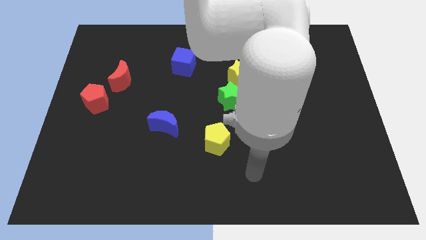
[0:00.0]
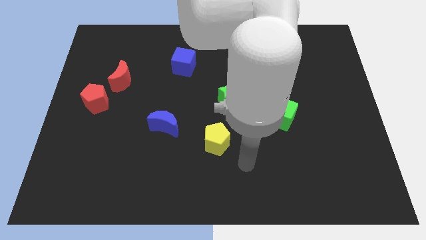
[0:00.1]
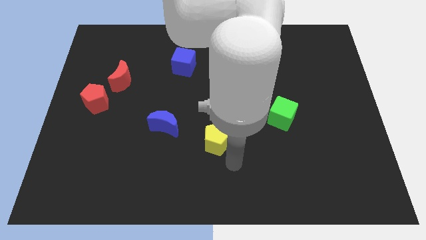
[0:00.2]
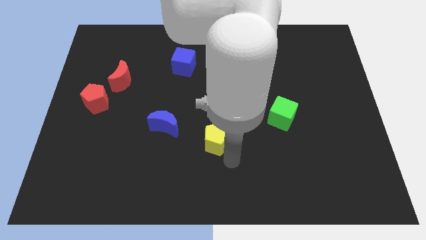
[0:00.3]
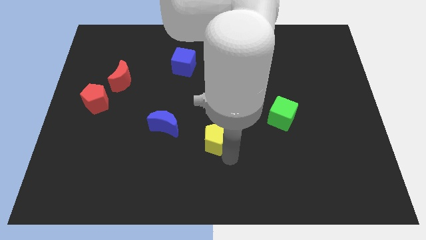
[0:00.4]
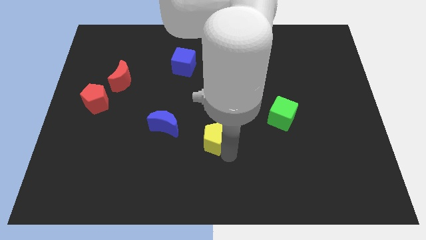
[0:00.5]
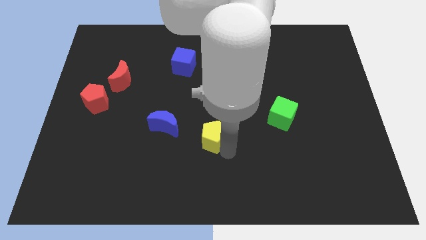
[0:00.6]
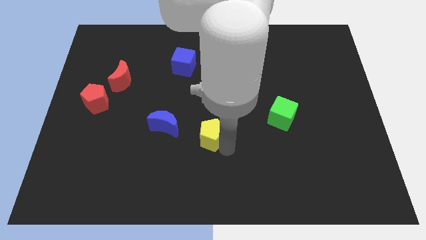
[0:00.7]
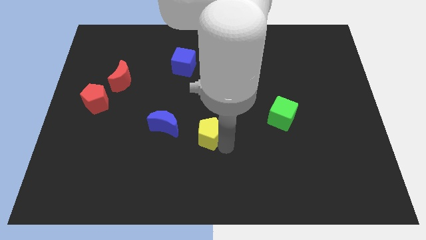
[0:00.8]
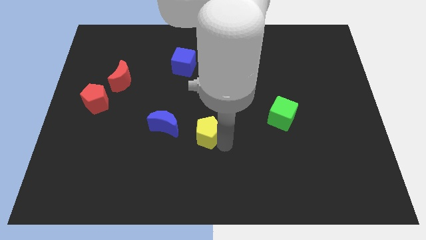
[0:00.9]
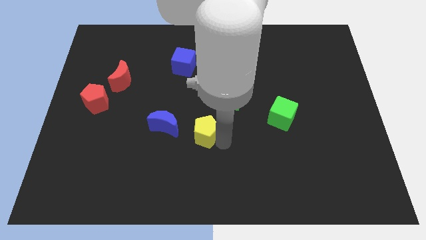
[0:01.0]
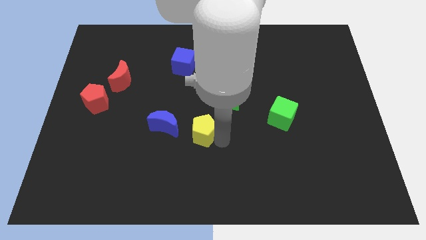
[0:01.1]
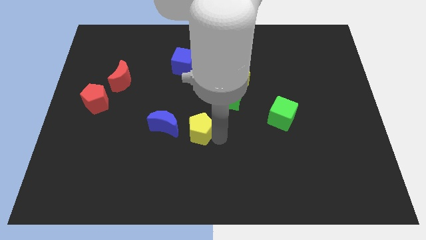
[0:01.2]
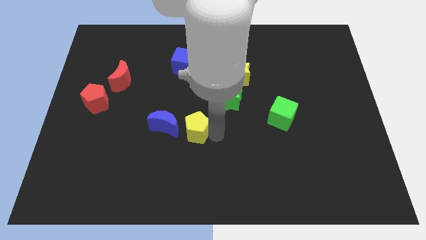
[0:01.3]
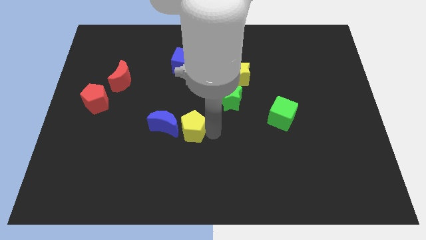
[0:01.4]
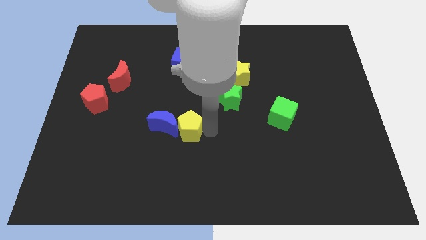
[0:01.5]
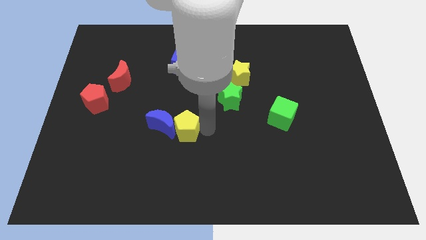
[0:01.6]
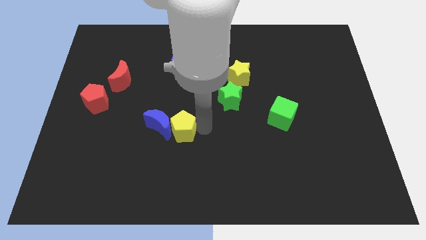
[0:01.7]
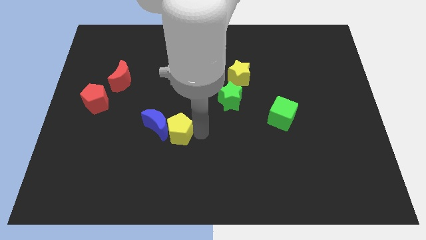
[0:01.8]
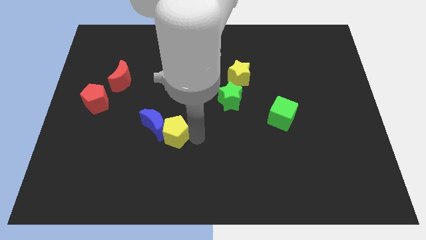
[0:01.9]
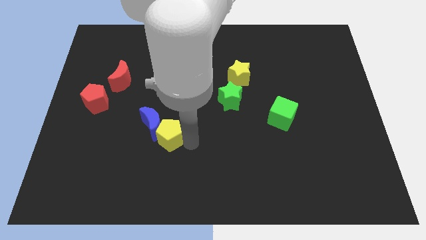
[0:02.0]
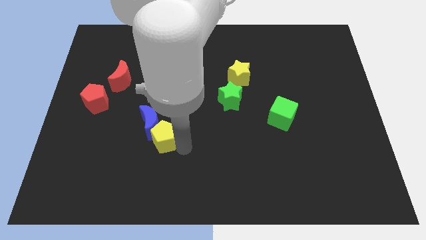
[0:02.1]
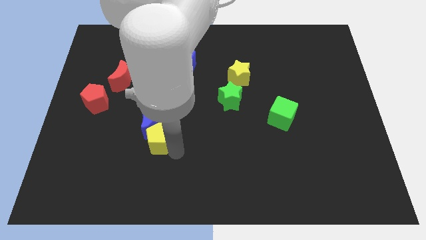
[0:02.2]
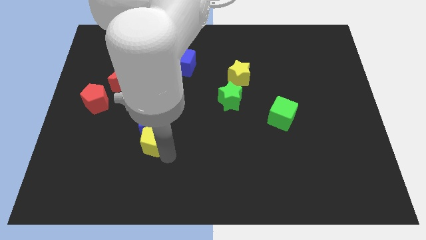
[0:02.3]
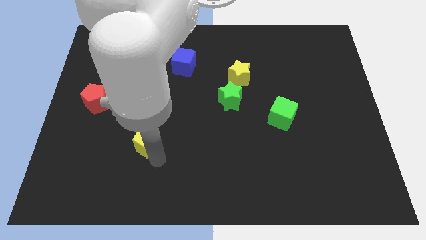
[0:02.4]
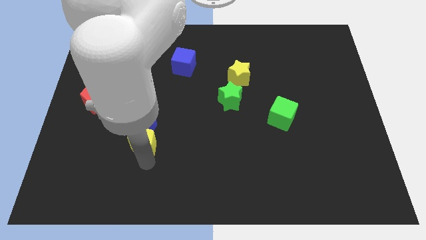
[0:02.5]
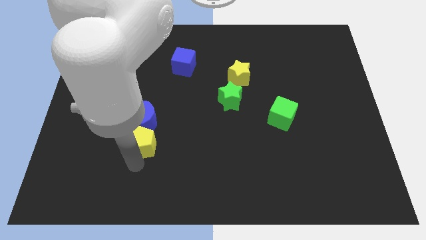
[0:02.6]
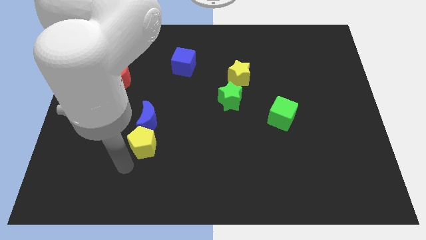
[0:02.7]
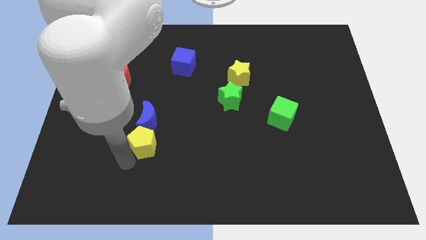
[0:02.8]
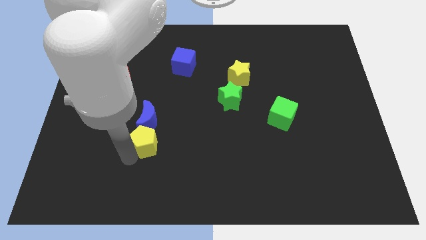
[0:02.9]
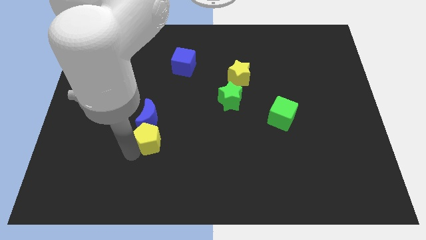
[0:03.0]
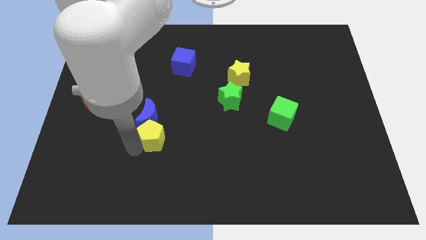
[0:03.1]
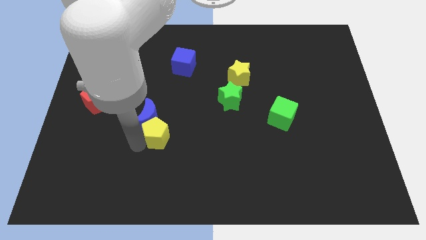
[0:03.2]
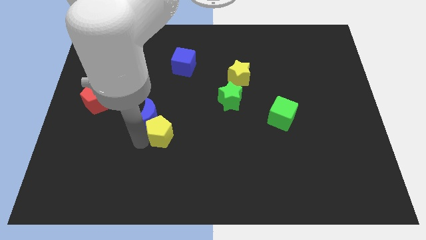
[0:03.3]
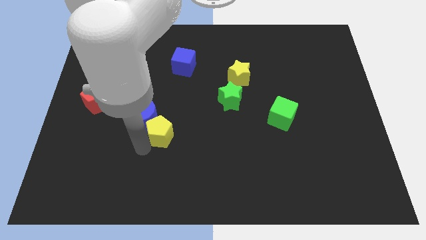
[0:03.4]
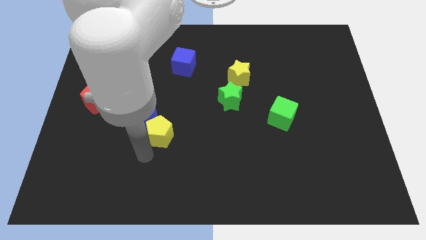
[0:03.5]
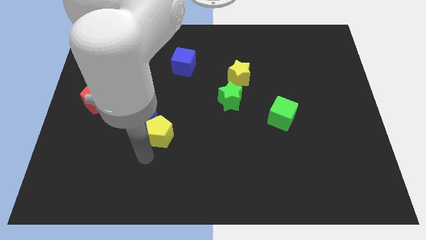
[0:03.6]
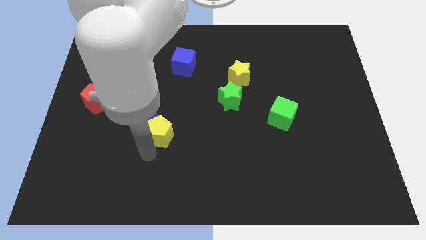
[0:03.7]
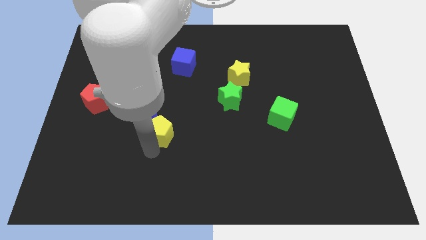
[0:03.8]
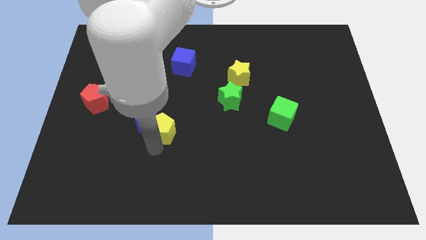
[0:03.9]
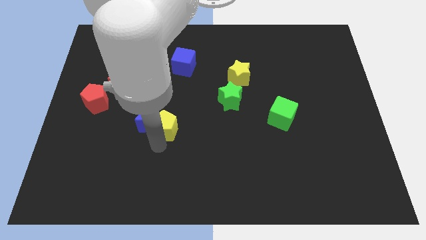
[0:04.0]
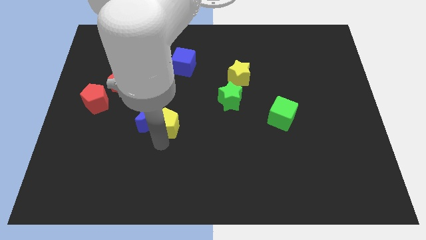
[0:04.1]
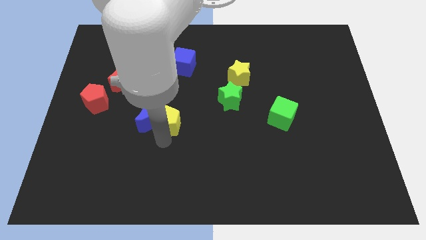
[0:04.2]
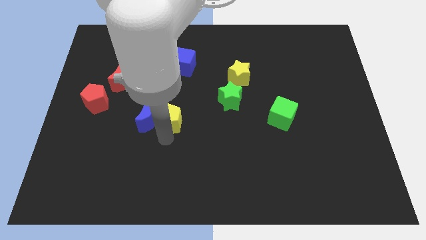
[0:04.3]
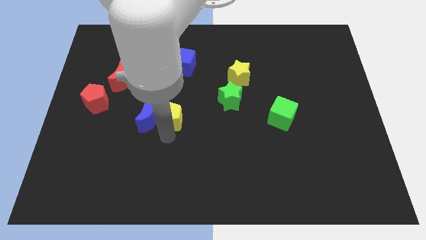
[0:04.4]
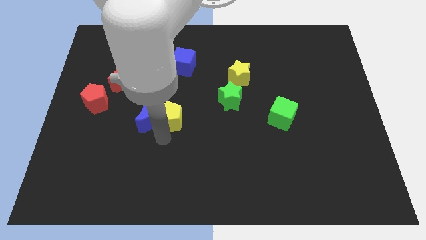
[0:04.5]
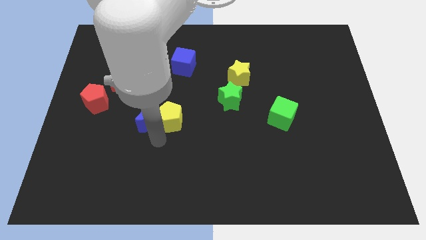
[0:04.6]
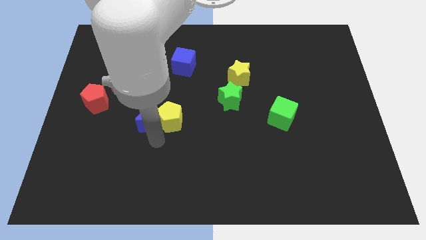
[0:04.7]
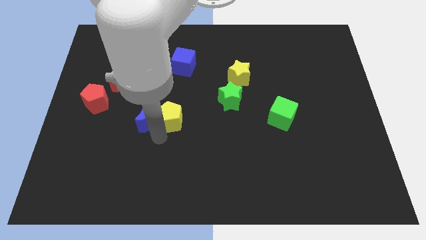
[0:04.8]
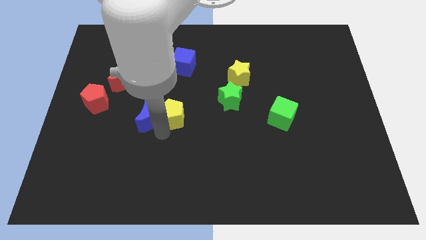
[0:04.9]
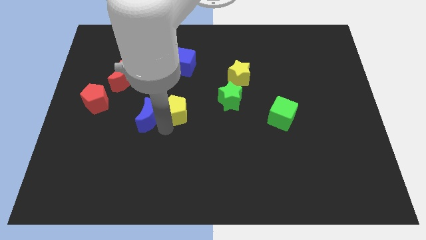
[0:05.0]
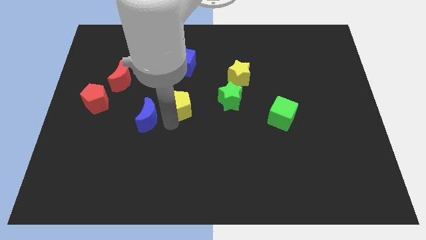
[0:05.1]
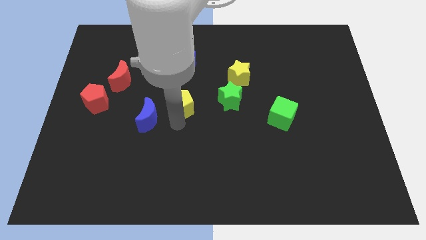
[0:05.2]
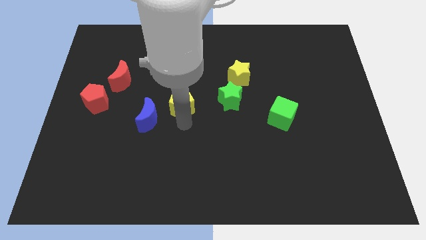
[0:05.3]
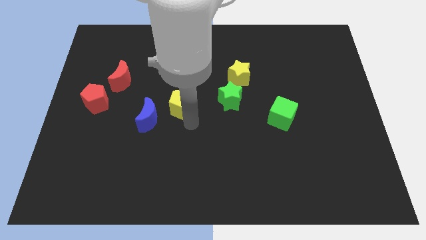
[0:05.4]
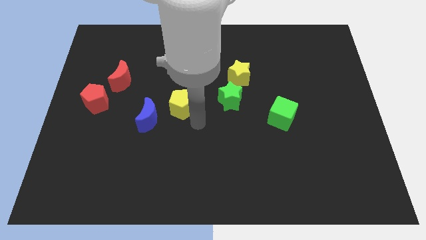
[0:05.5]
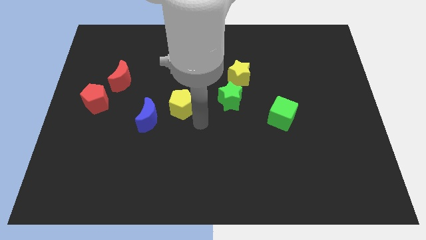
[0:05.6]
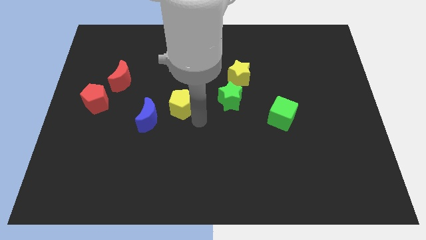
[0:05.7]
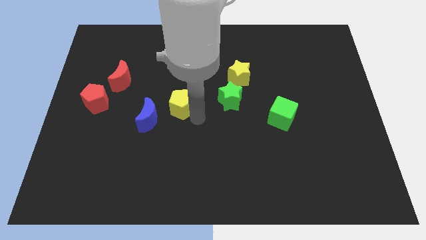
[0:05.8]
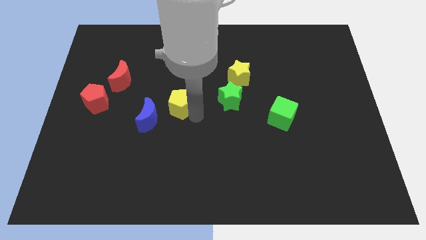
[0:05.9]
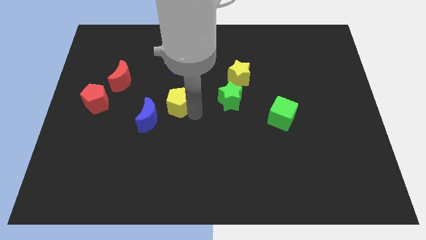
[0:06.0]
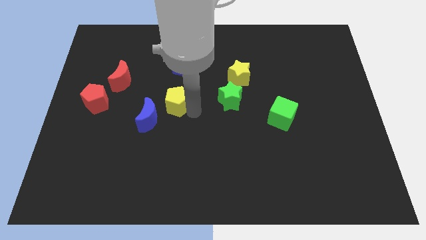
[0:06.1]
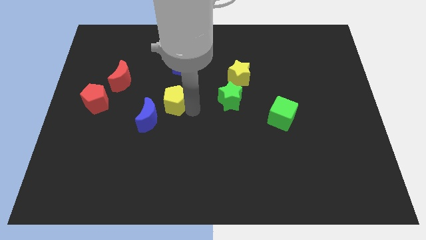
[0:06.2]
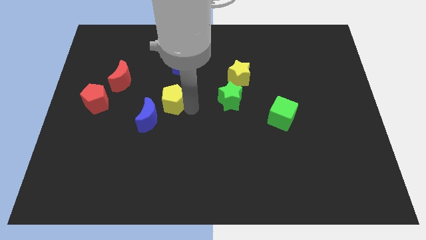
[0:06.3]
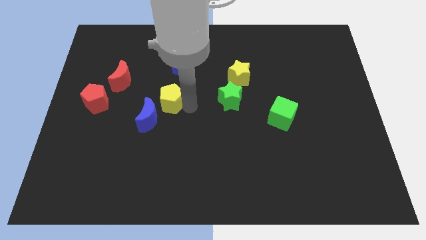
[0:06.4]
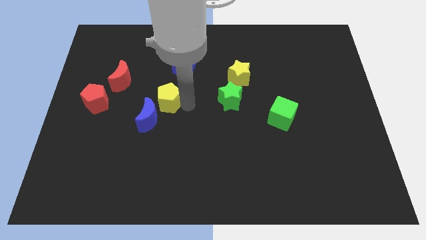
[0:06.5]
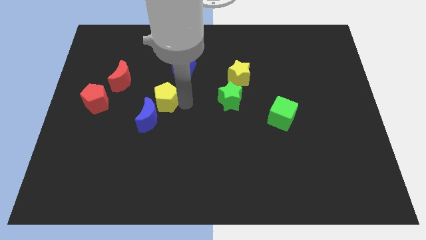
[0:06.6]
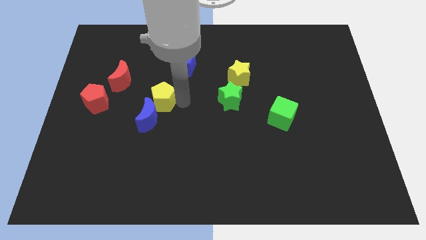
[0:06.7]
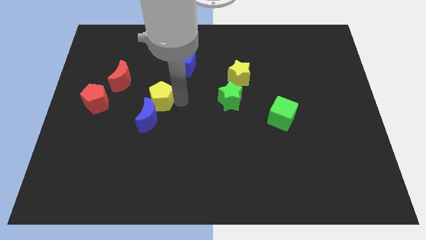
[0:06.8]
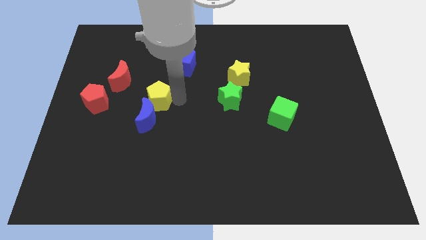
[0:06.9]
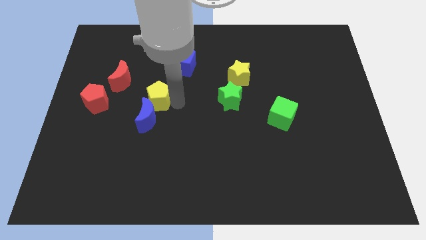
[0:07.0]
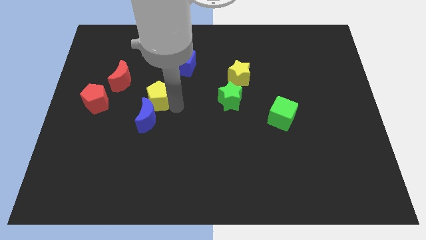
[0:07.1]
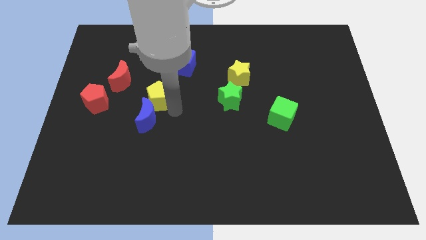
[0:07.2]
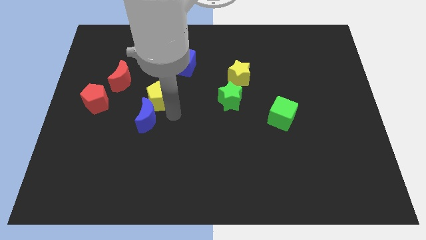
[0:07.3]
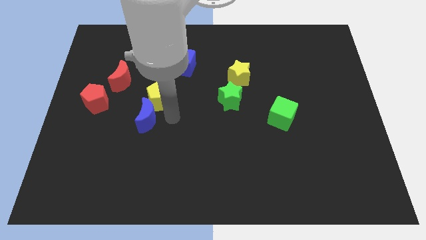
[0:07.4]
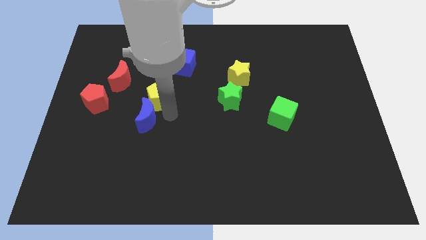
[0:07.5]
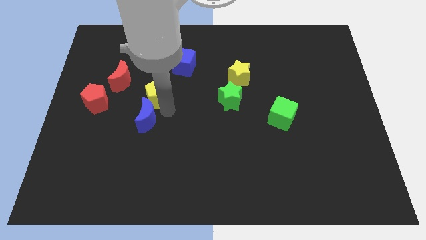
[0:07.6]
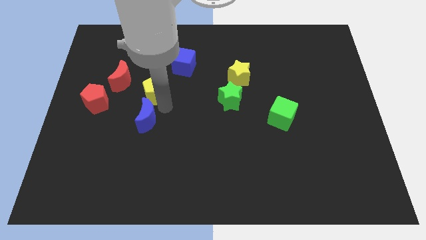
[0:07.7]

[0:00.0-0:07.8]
push the yellow pentagon upwards and to the left diagonally

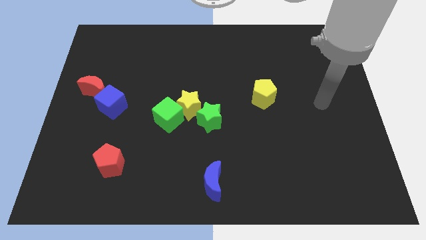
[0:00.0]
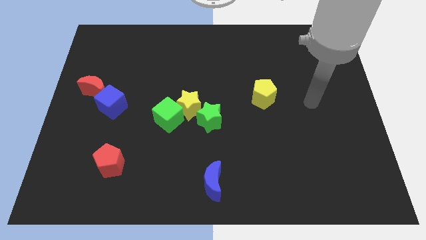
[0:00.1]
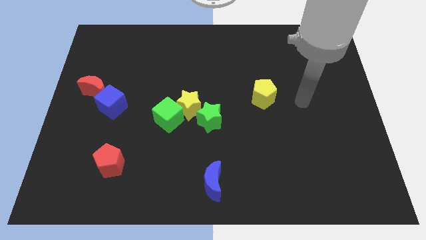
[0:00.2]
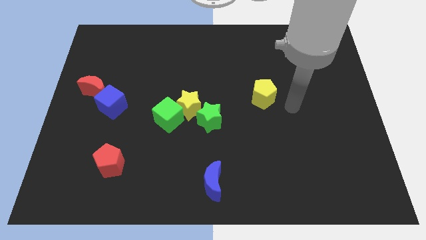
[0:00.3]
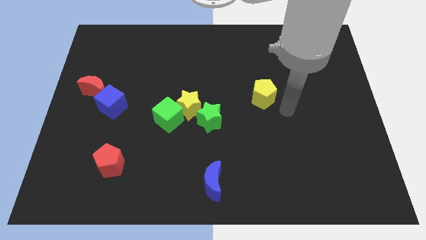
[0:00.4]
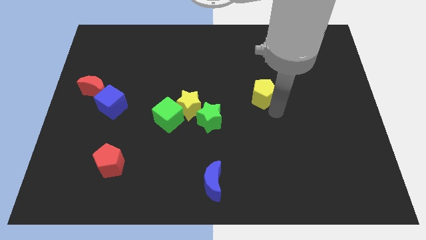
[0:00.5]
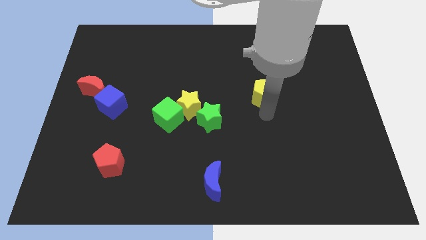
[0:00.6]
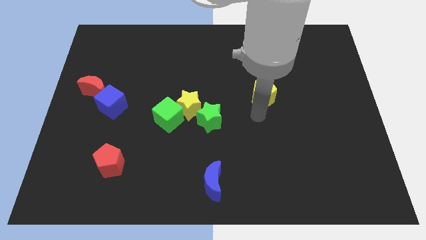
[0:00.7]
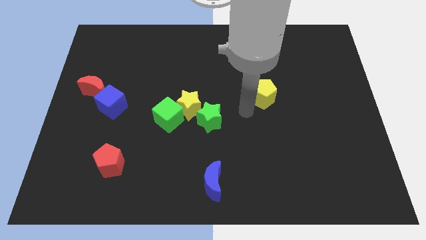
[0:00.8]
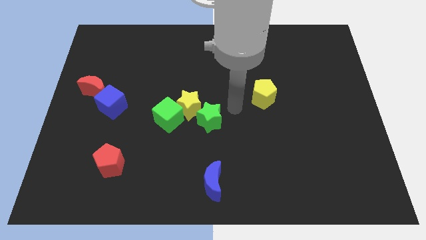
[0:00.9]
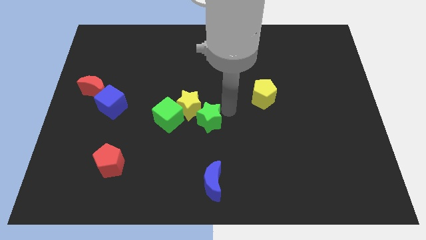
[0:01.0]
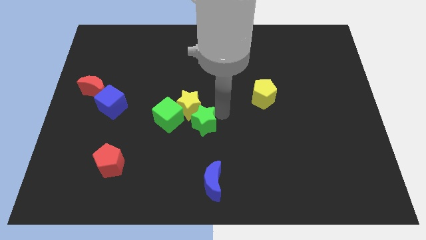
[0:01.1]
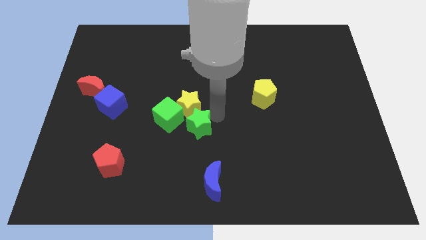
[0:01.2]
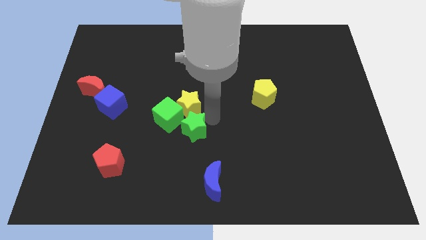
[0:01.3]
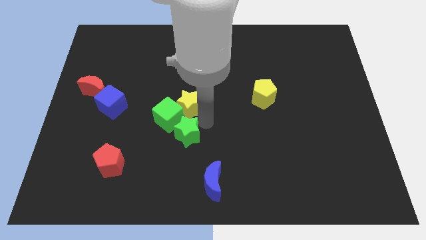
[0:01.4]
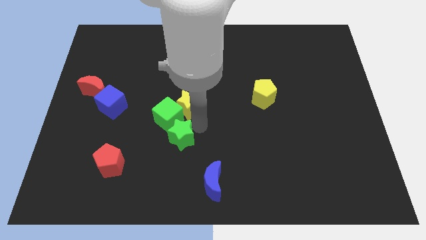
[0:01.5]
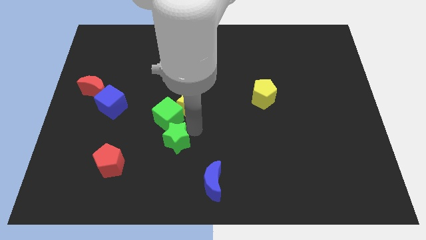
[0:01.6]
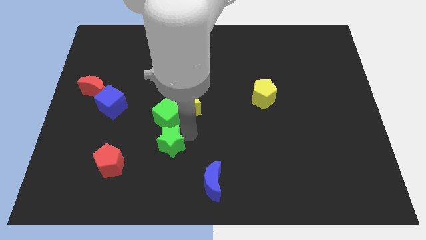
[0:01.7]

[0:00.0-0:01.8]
slide the green star a little to the left
